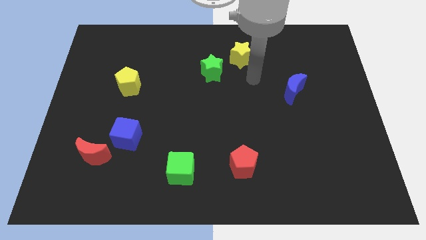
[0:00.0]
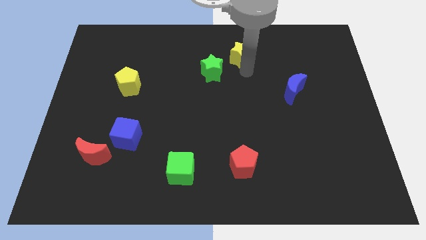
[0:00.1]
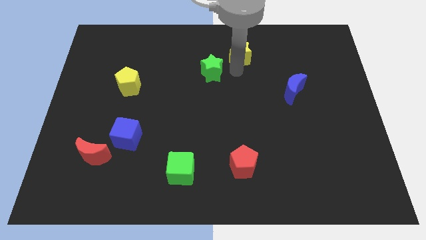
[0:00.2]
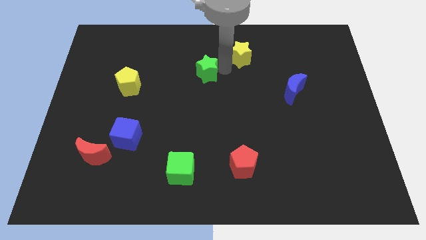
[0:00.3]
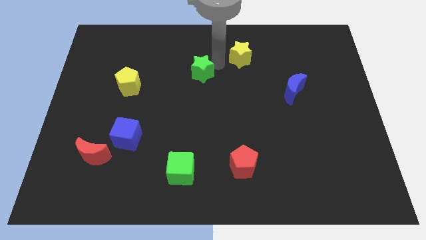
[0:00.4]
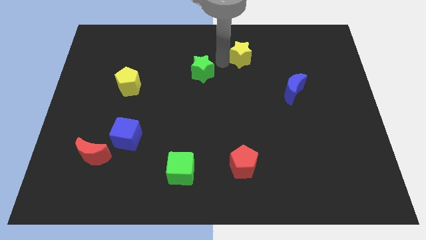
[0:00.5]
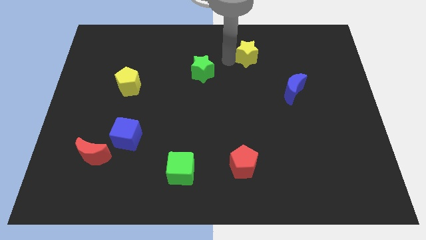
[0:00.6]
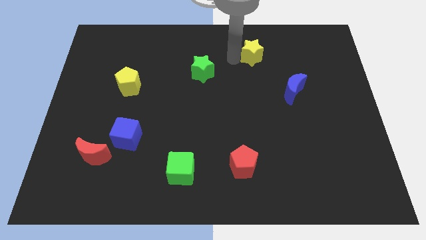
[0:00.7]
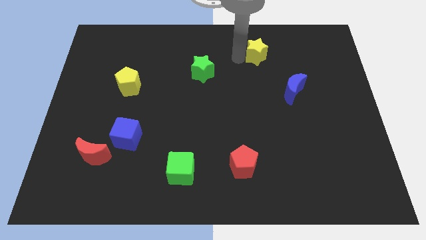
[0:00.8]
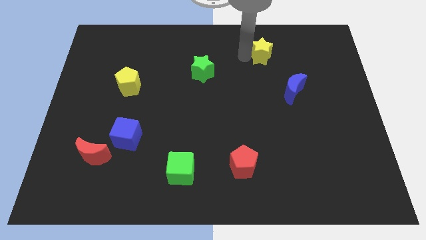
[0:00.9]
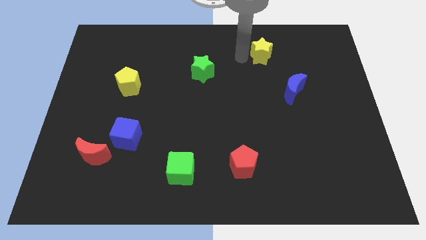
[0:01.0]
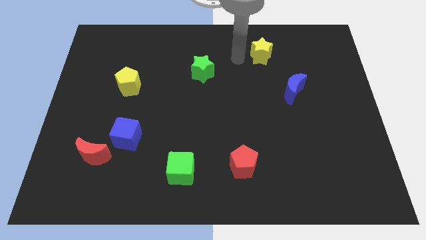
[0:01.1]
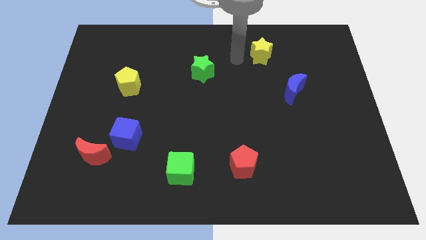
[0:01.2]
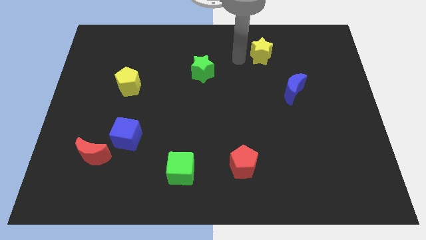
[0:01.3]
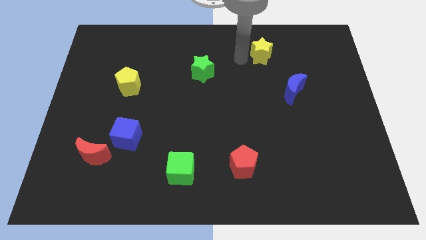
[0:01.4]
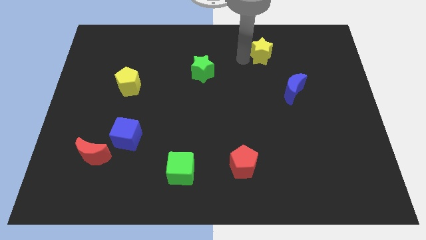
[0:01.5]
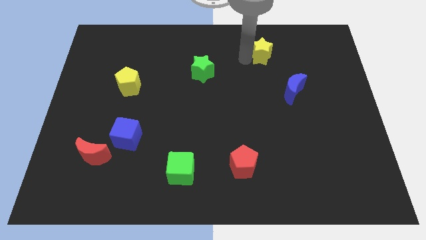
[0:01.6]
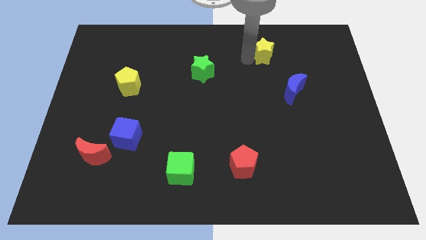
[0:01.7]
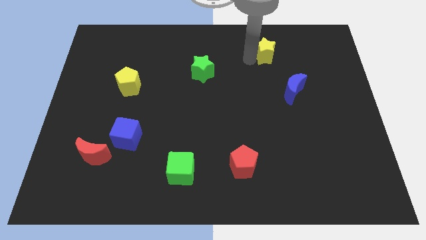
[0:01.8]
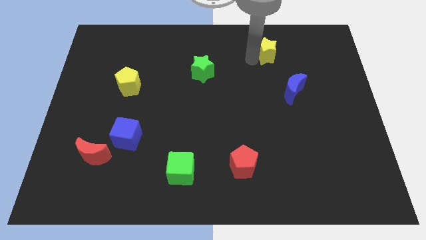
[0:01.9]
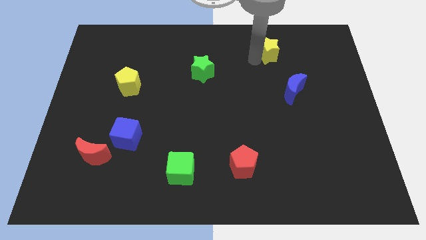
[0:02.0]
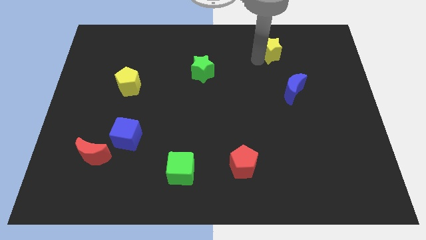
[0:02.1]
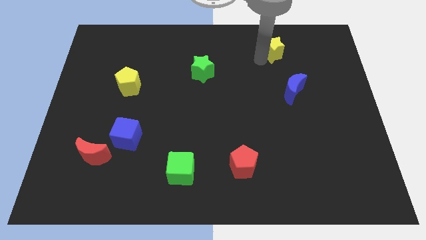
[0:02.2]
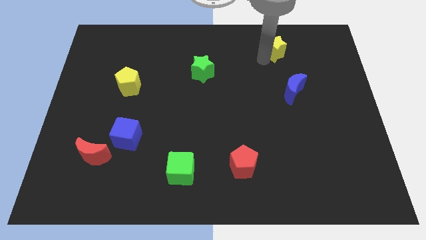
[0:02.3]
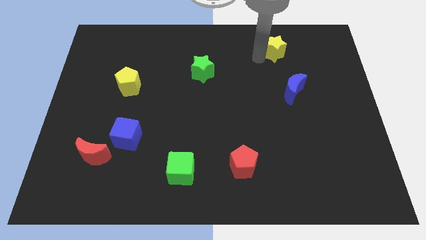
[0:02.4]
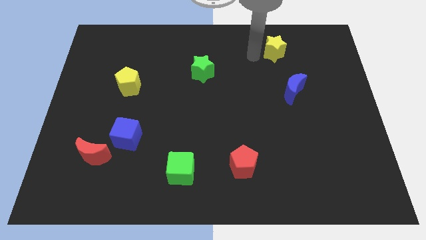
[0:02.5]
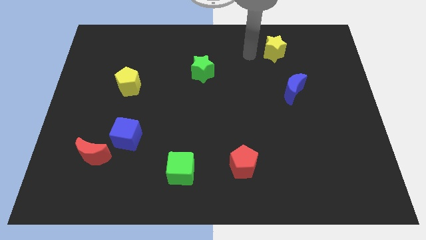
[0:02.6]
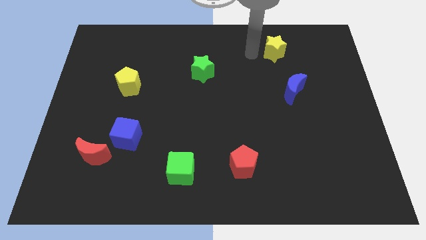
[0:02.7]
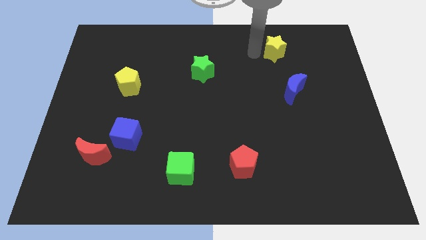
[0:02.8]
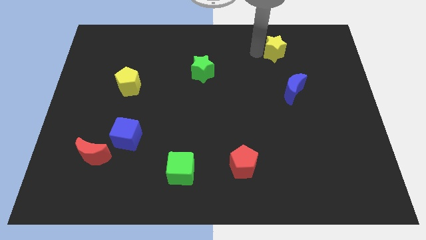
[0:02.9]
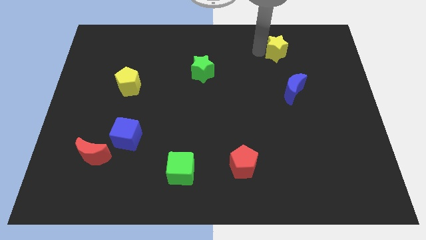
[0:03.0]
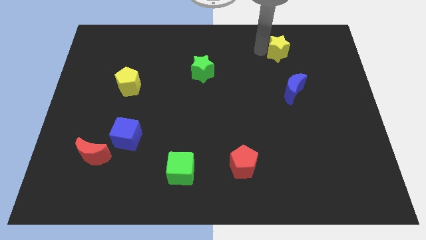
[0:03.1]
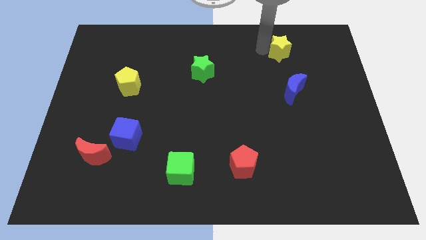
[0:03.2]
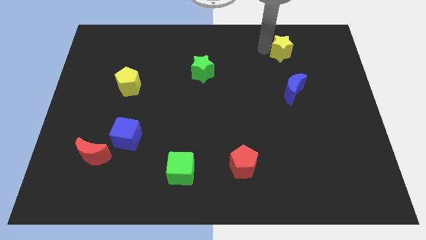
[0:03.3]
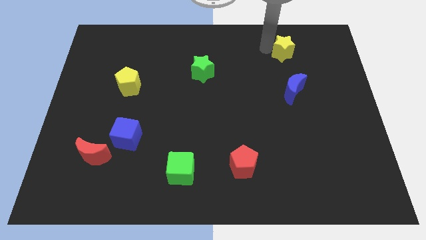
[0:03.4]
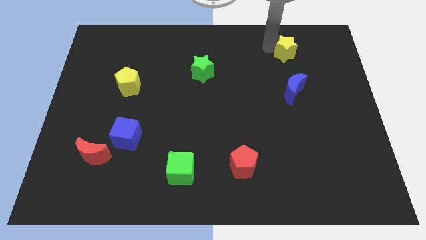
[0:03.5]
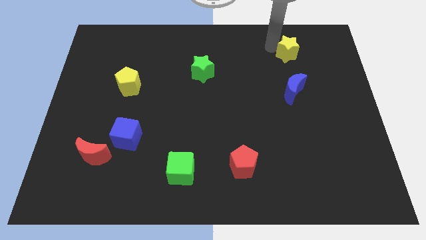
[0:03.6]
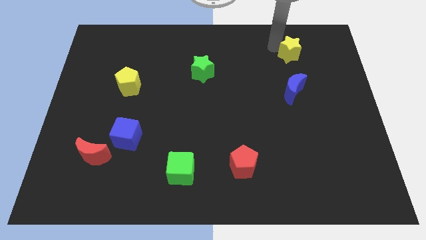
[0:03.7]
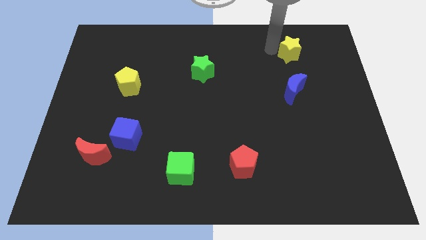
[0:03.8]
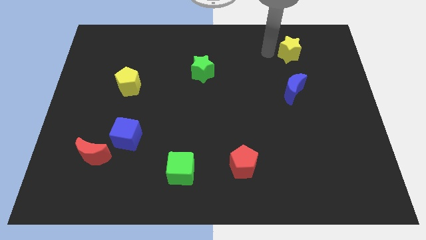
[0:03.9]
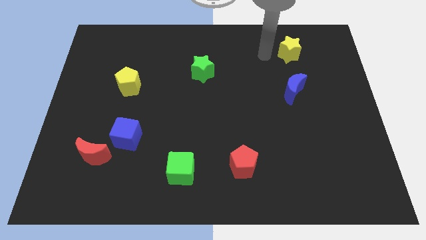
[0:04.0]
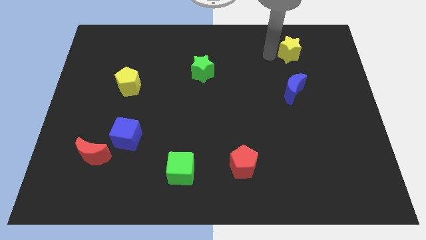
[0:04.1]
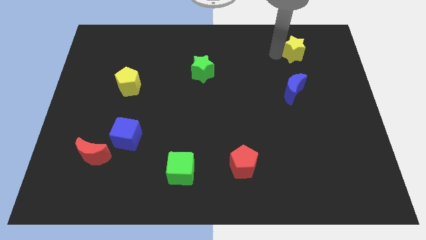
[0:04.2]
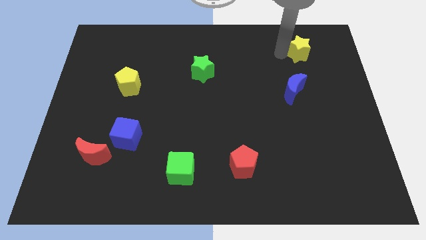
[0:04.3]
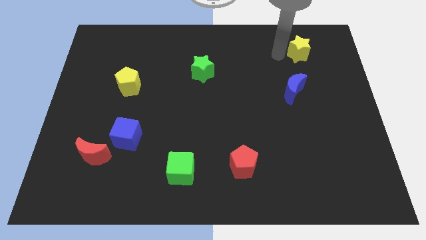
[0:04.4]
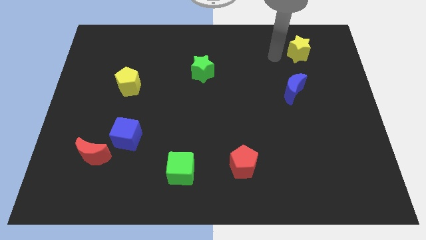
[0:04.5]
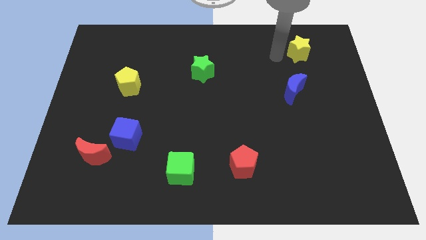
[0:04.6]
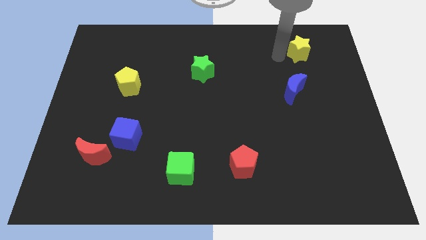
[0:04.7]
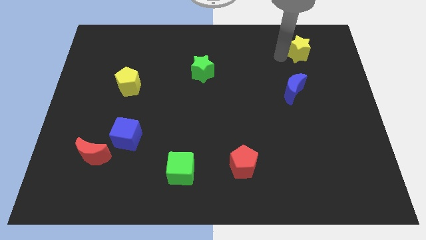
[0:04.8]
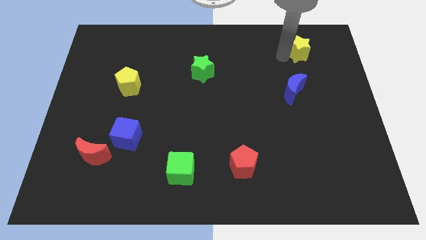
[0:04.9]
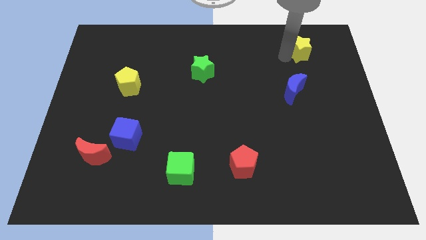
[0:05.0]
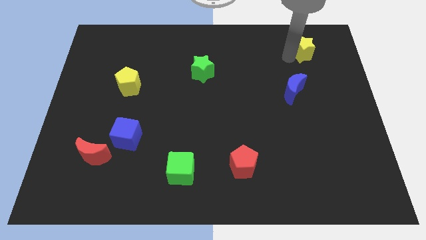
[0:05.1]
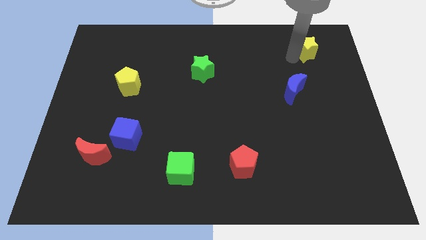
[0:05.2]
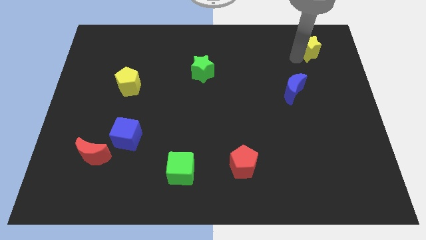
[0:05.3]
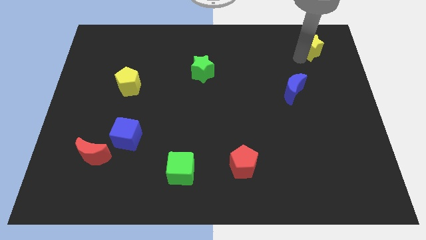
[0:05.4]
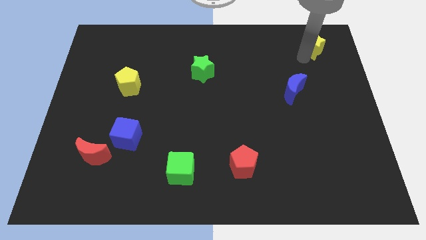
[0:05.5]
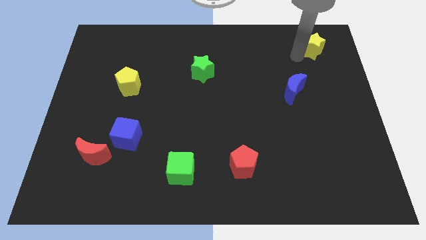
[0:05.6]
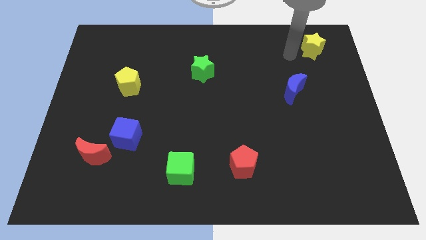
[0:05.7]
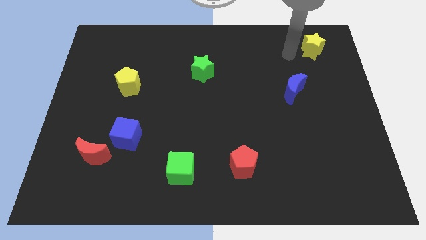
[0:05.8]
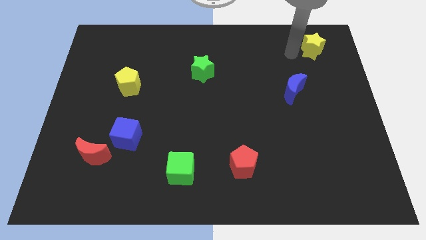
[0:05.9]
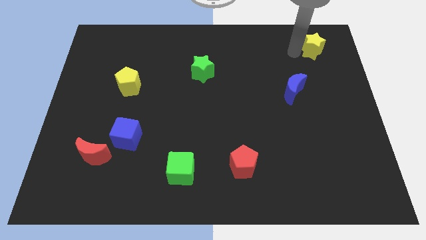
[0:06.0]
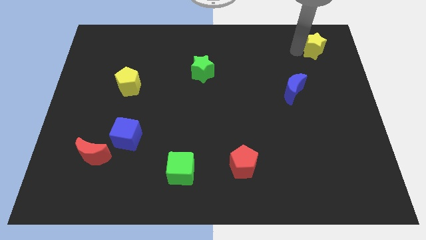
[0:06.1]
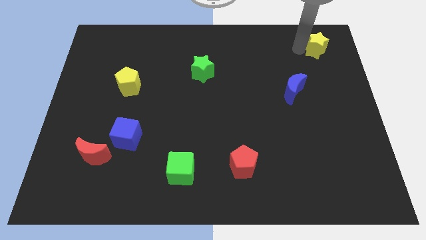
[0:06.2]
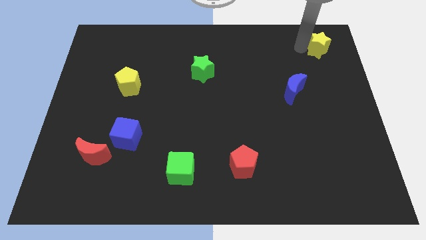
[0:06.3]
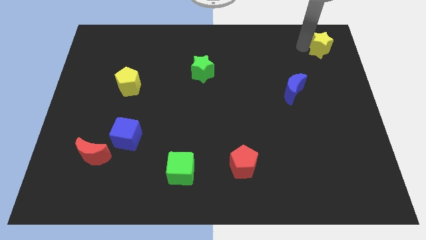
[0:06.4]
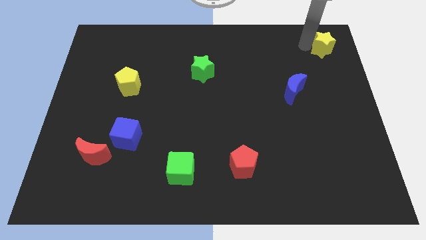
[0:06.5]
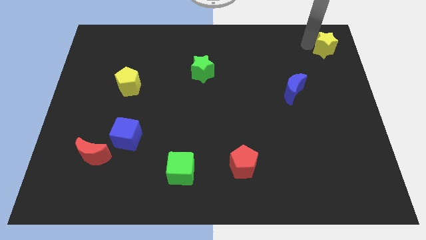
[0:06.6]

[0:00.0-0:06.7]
push the yellow star to the top right corner

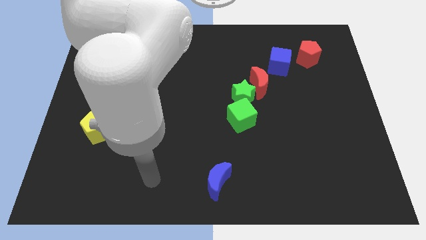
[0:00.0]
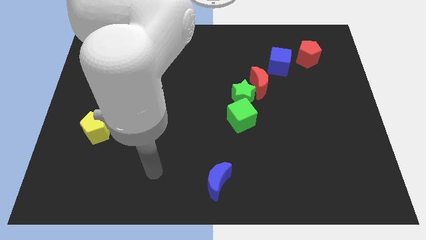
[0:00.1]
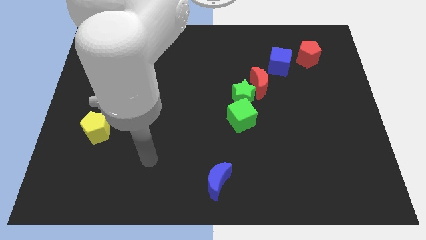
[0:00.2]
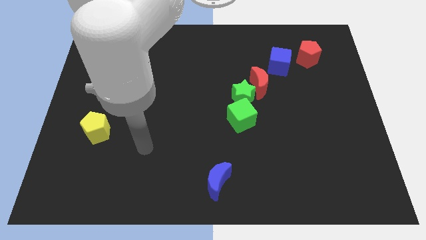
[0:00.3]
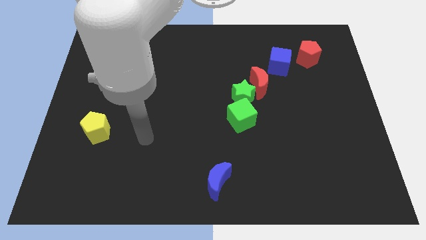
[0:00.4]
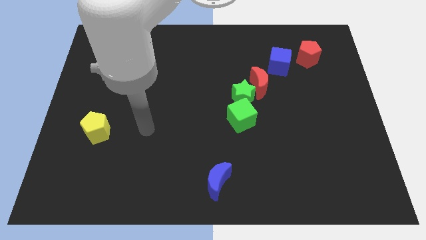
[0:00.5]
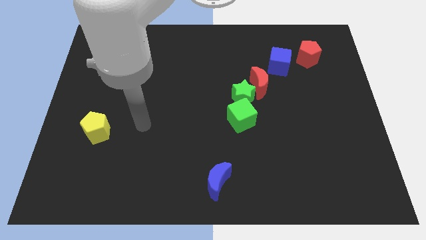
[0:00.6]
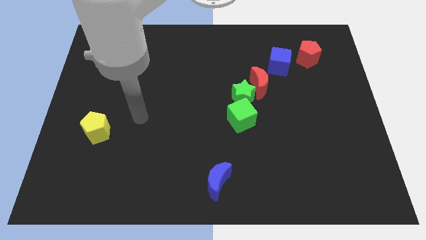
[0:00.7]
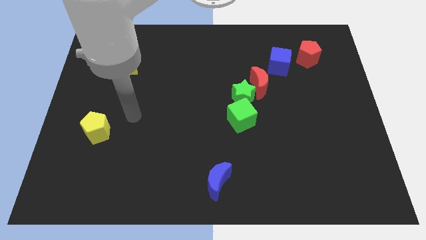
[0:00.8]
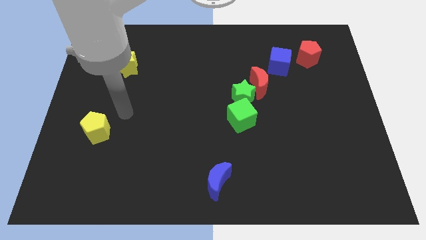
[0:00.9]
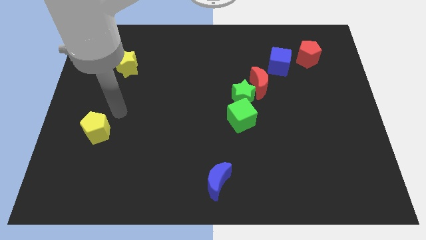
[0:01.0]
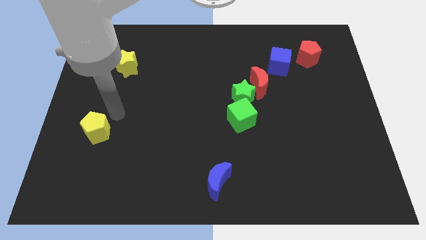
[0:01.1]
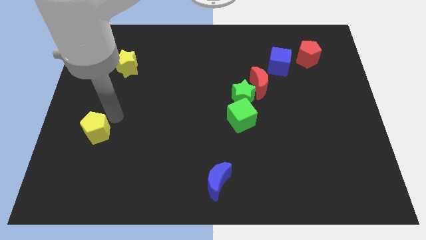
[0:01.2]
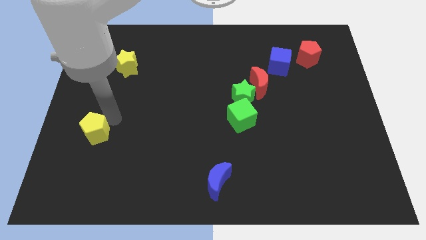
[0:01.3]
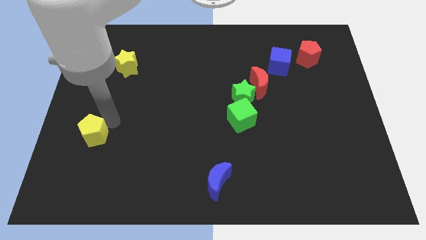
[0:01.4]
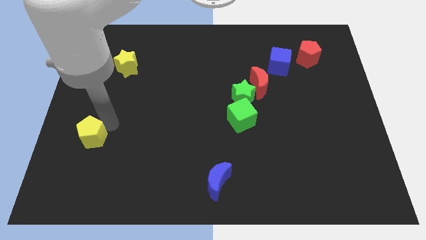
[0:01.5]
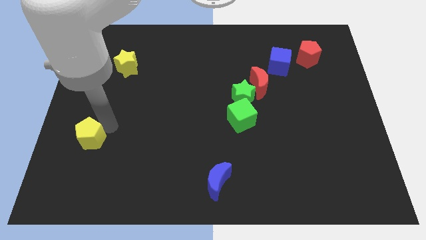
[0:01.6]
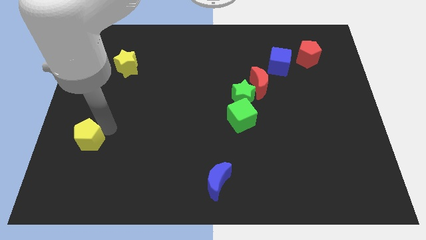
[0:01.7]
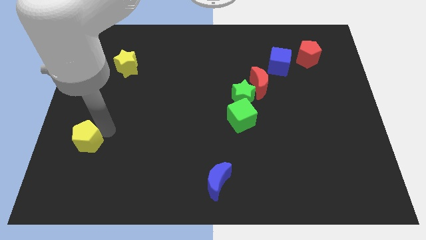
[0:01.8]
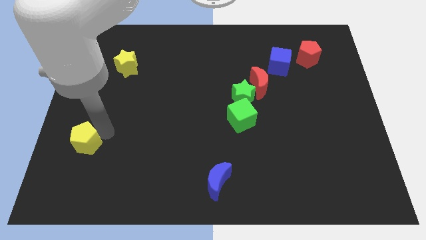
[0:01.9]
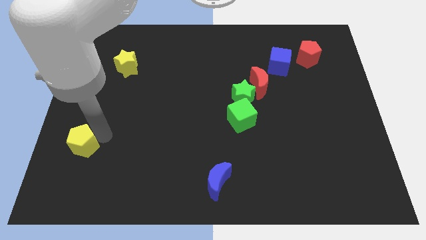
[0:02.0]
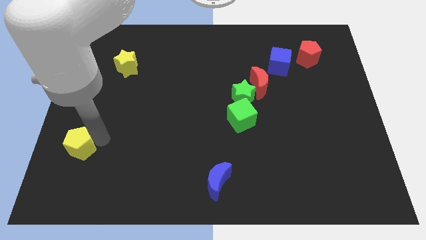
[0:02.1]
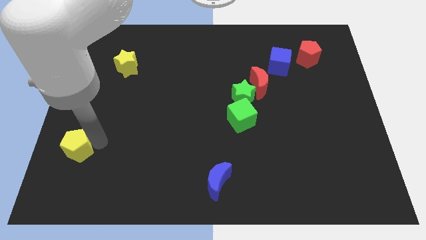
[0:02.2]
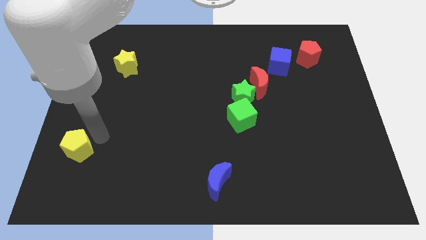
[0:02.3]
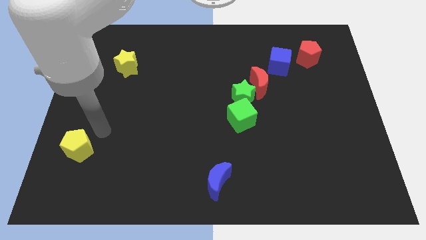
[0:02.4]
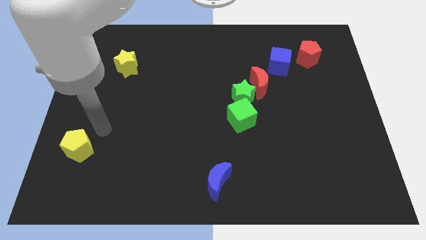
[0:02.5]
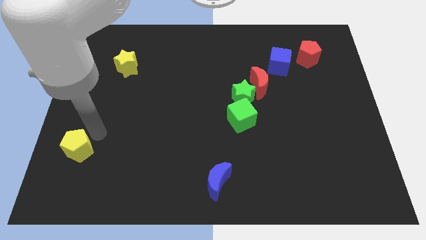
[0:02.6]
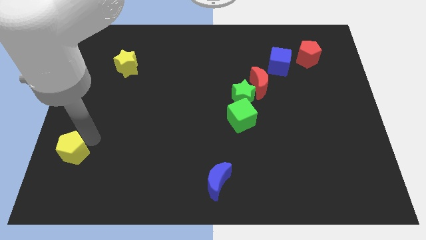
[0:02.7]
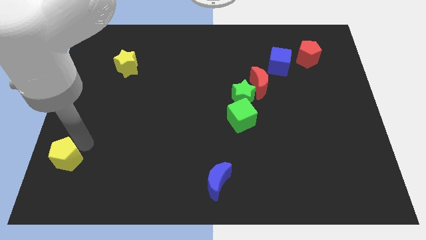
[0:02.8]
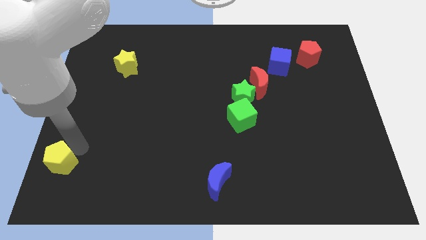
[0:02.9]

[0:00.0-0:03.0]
push the yellow pentagon to the lower left corner
